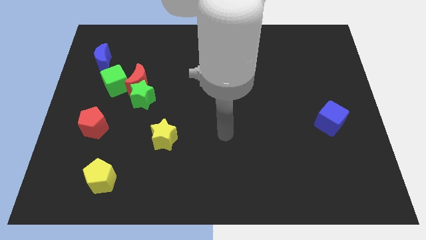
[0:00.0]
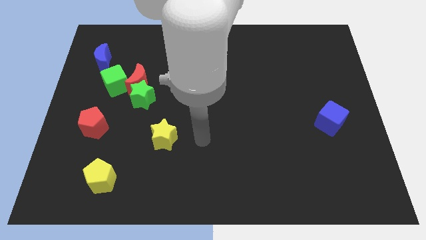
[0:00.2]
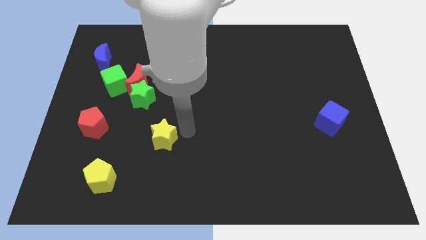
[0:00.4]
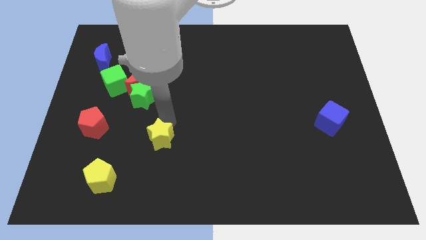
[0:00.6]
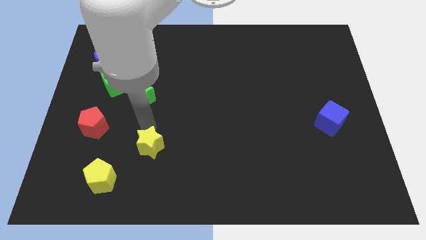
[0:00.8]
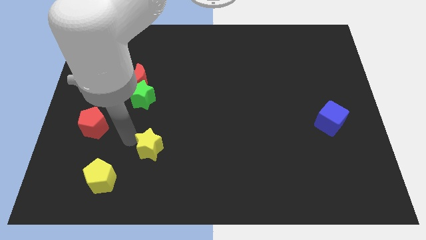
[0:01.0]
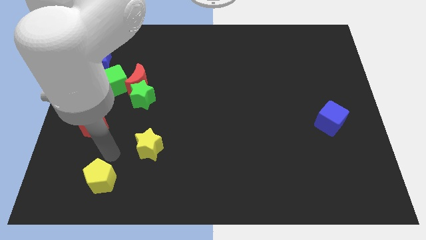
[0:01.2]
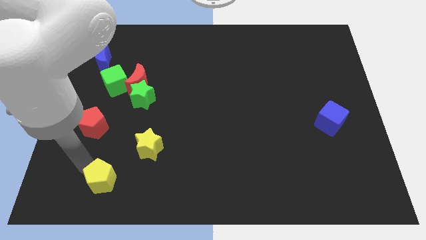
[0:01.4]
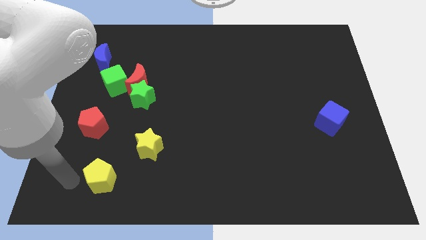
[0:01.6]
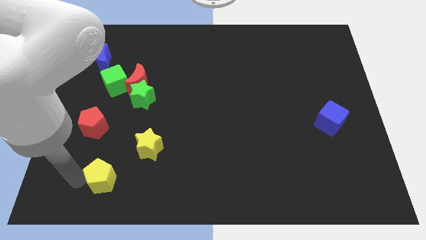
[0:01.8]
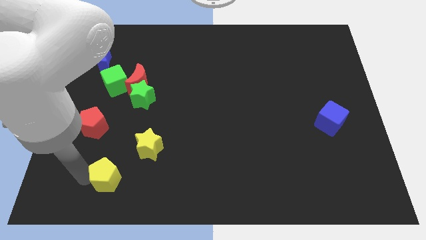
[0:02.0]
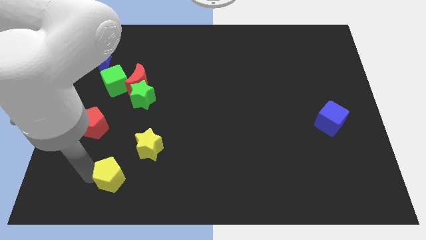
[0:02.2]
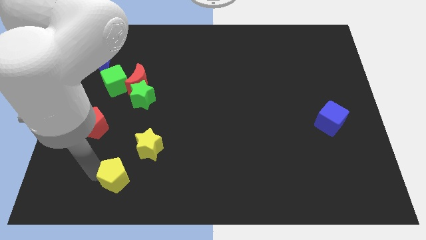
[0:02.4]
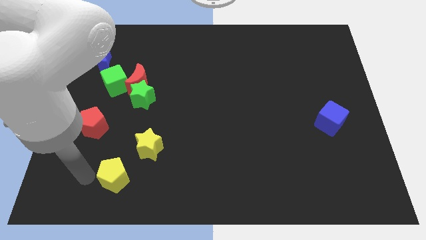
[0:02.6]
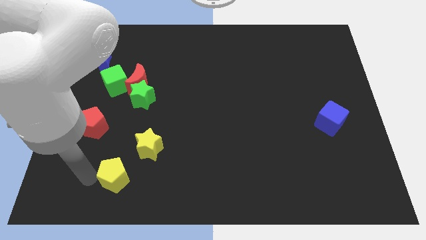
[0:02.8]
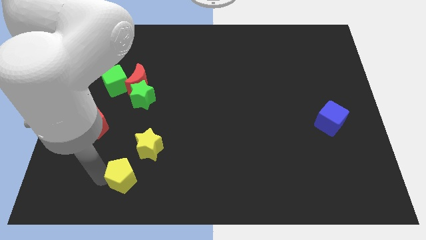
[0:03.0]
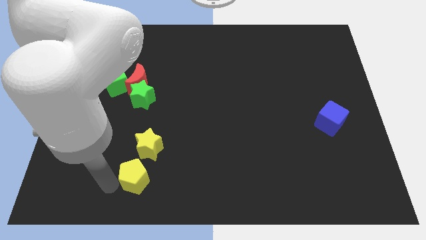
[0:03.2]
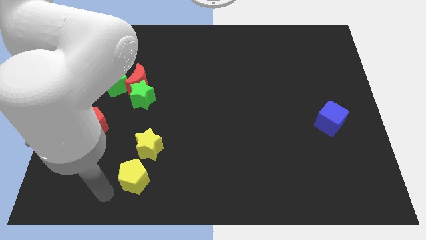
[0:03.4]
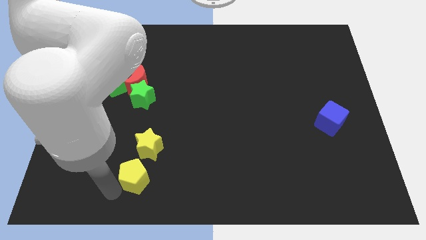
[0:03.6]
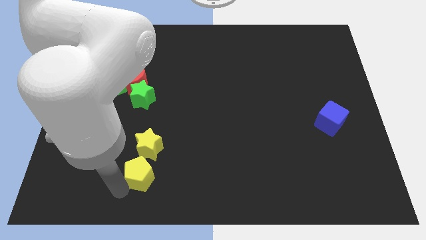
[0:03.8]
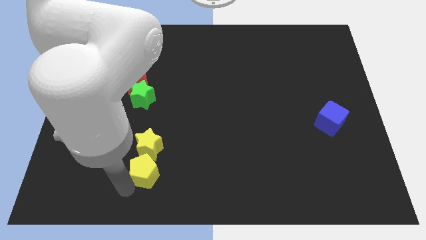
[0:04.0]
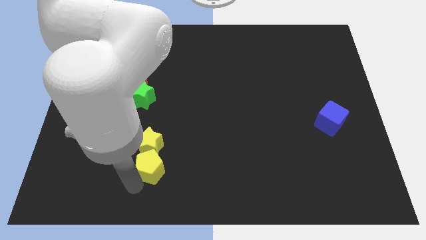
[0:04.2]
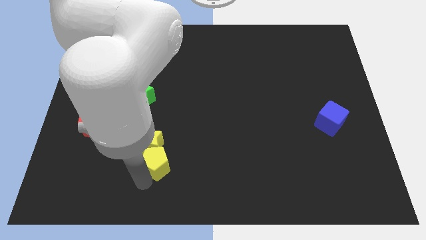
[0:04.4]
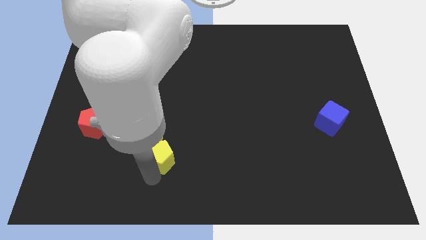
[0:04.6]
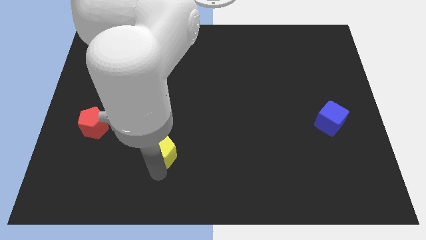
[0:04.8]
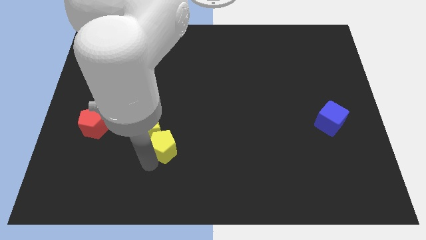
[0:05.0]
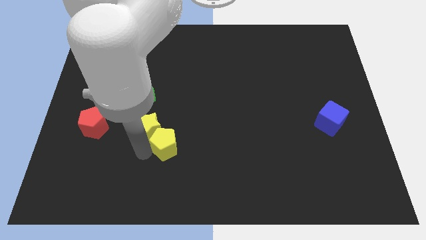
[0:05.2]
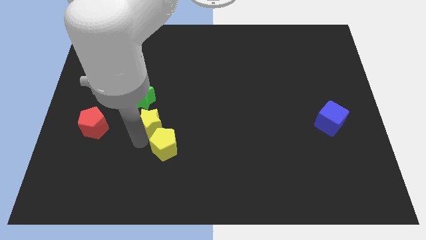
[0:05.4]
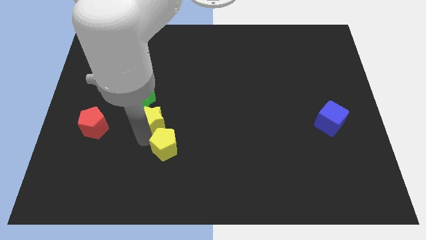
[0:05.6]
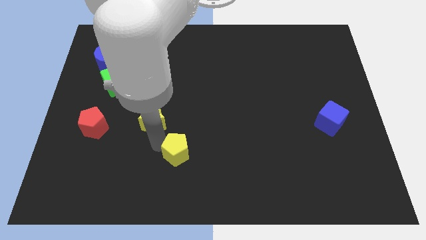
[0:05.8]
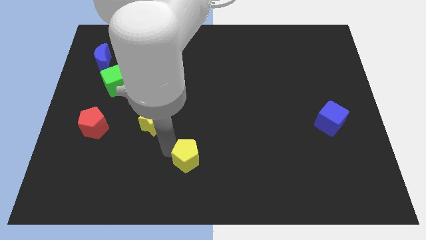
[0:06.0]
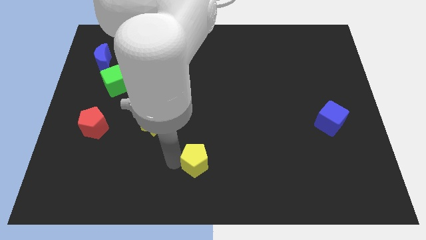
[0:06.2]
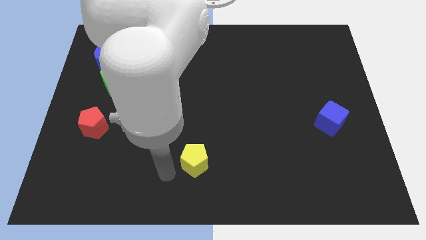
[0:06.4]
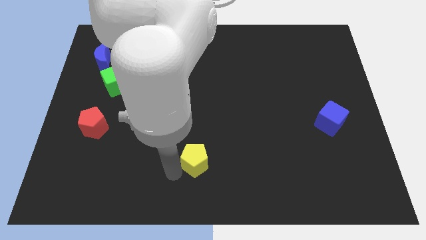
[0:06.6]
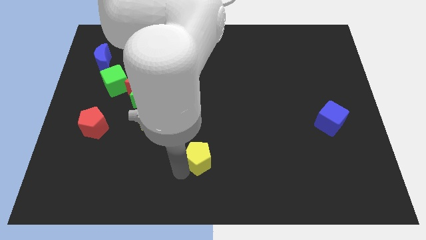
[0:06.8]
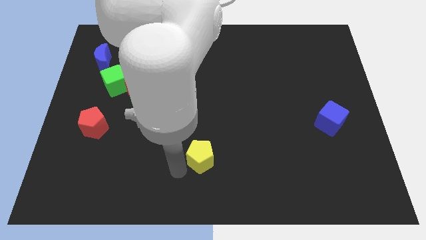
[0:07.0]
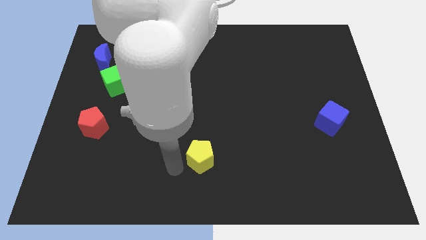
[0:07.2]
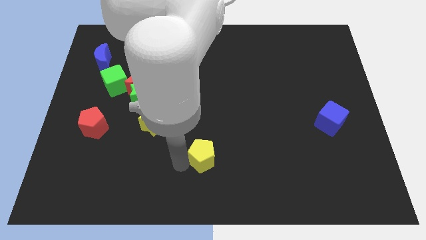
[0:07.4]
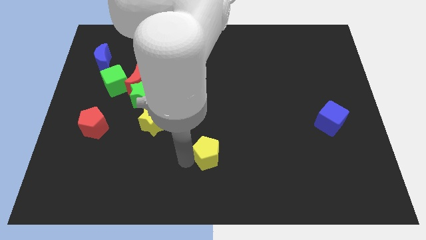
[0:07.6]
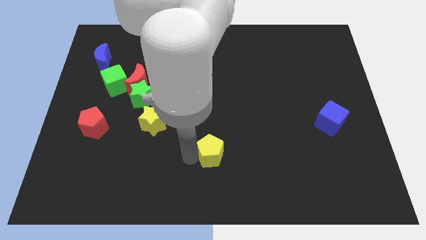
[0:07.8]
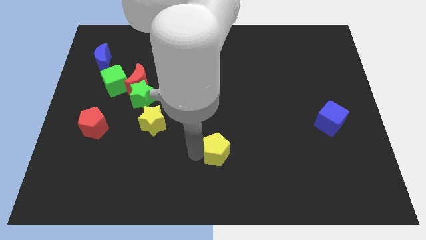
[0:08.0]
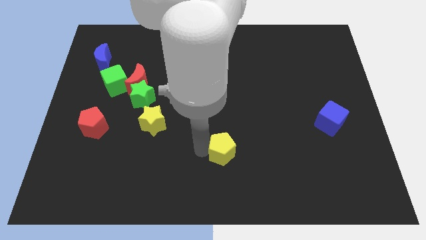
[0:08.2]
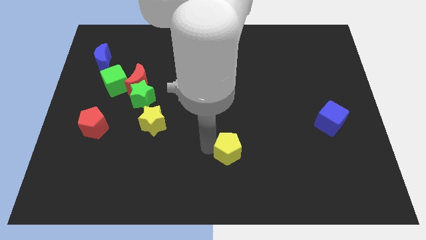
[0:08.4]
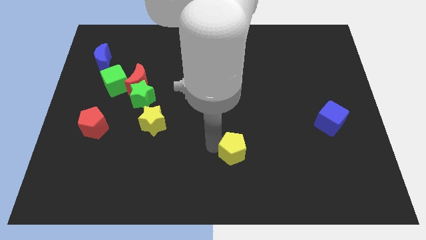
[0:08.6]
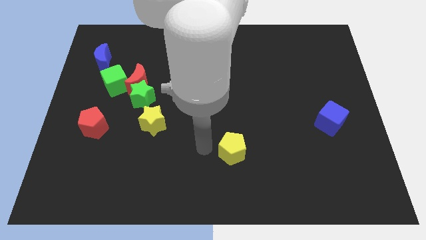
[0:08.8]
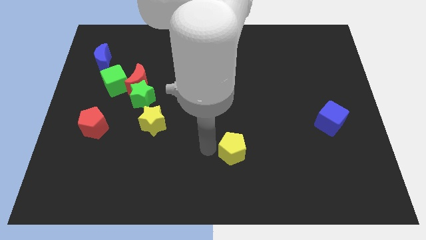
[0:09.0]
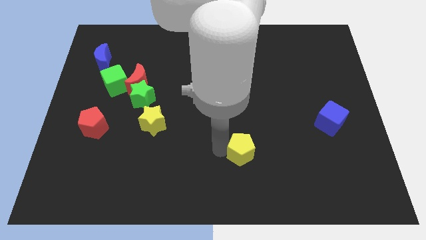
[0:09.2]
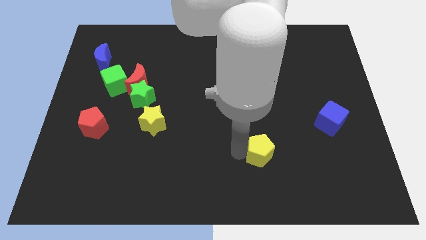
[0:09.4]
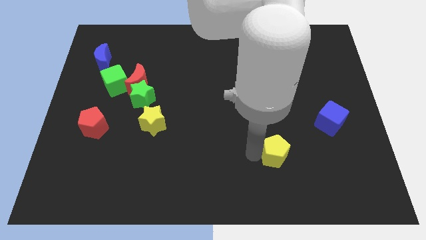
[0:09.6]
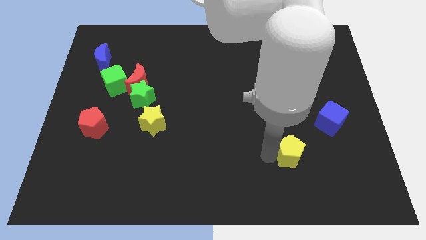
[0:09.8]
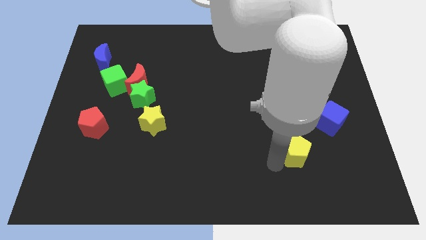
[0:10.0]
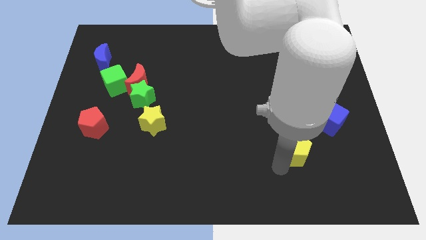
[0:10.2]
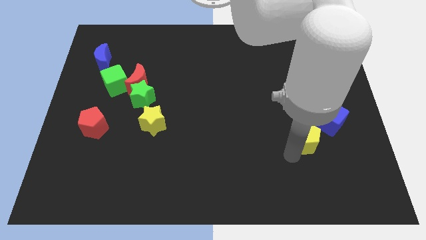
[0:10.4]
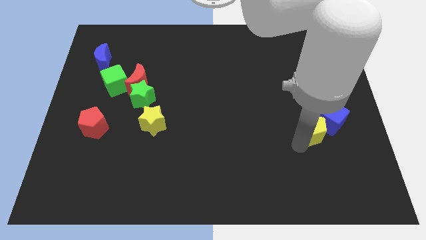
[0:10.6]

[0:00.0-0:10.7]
move the yellow pentagon next to the blue cube

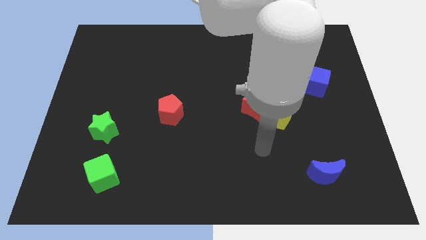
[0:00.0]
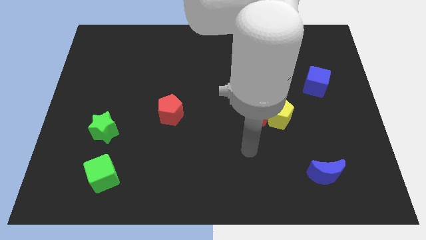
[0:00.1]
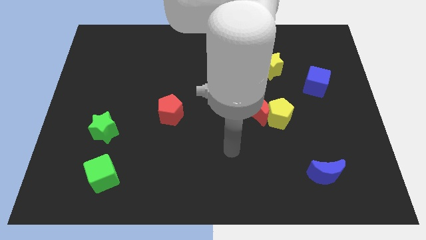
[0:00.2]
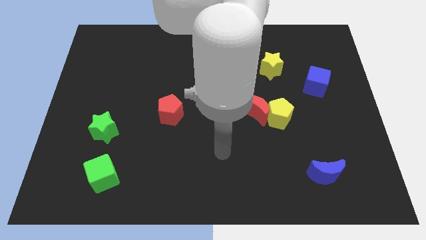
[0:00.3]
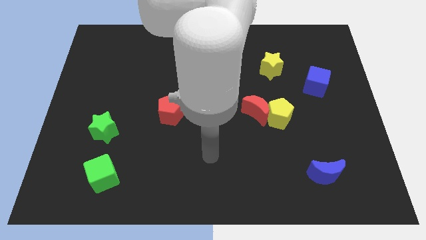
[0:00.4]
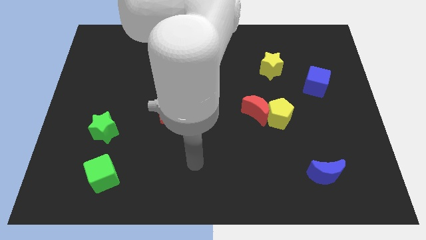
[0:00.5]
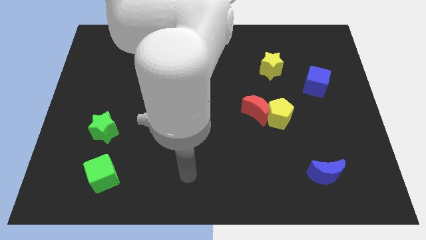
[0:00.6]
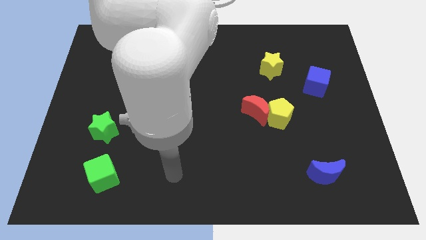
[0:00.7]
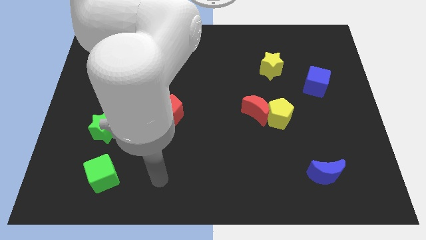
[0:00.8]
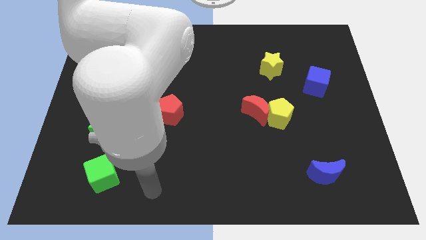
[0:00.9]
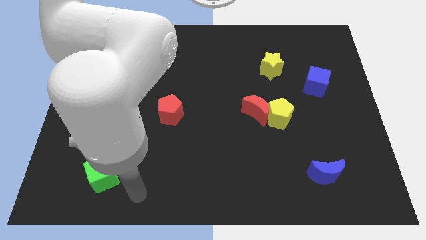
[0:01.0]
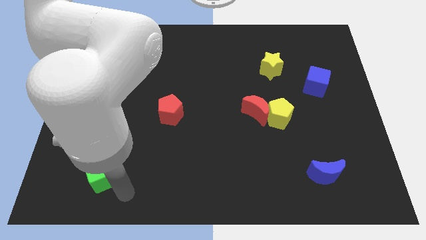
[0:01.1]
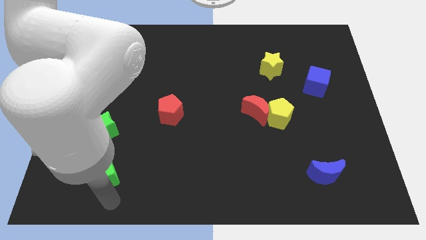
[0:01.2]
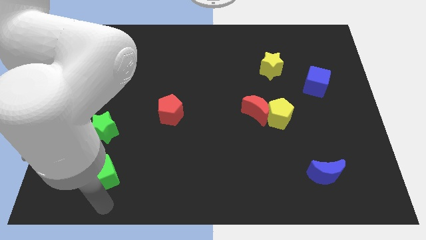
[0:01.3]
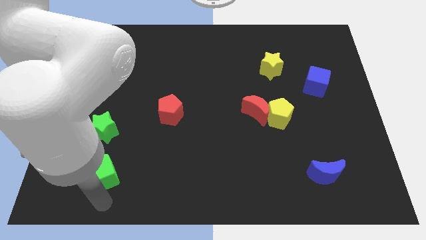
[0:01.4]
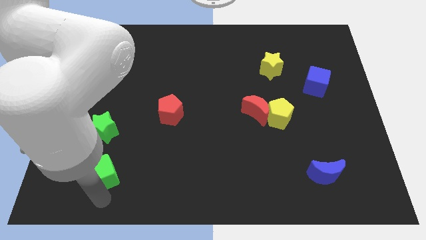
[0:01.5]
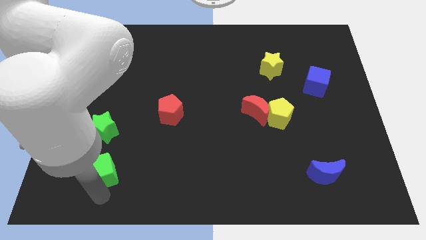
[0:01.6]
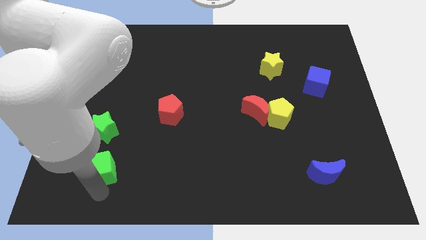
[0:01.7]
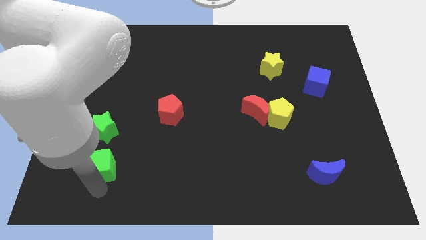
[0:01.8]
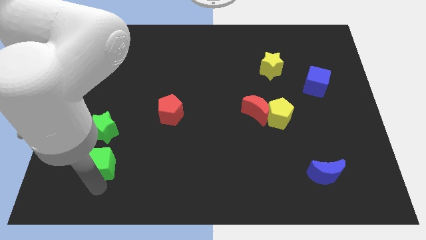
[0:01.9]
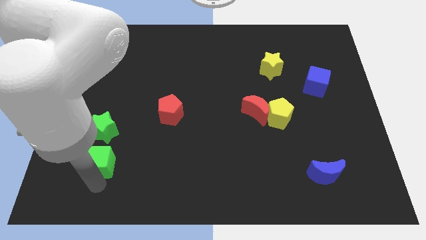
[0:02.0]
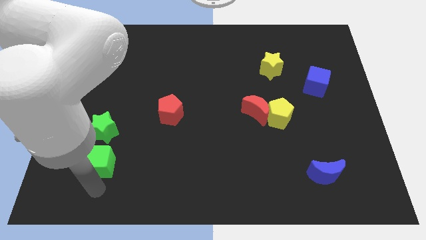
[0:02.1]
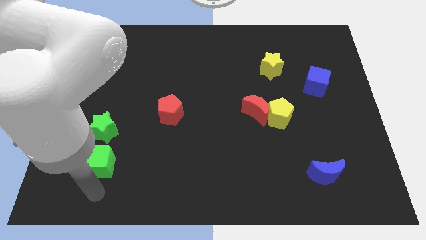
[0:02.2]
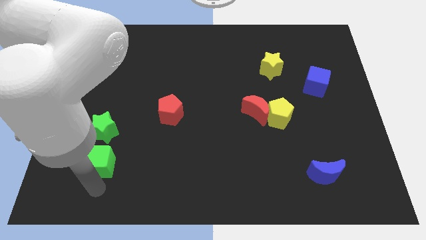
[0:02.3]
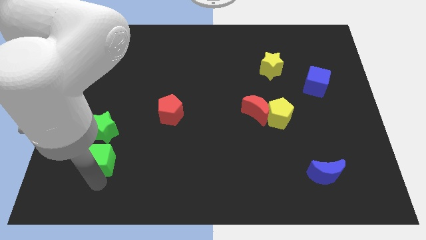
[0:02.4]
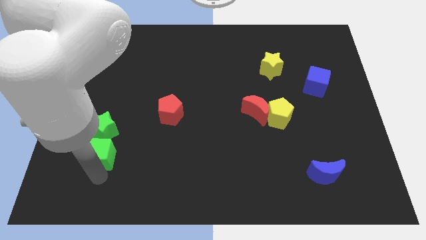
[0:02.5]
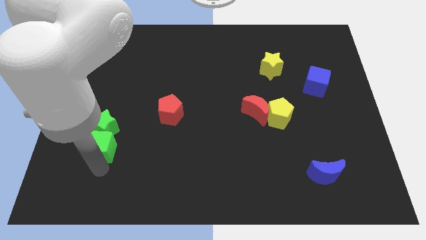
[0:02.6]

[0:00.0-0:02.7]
move the green cube to the green star

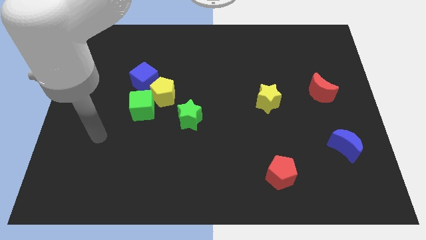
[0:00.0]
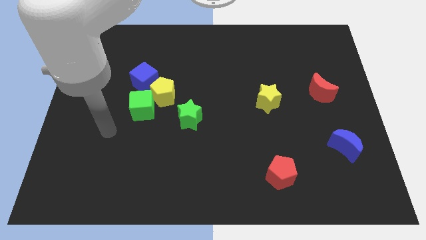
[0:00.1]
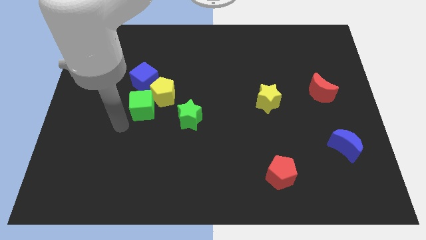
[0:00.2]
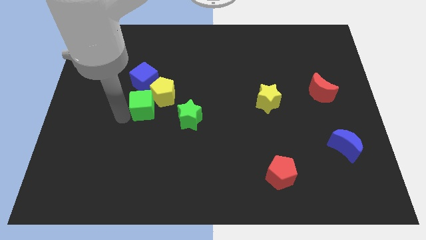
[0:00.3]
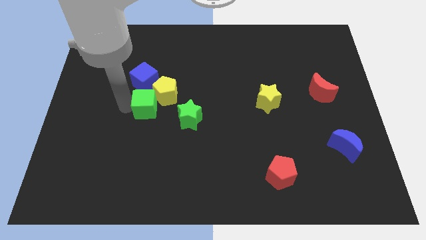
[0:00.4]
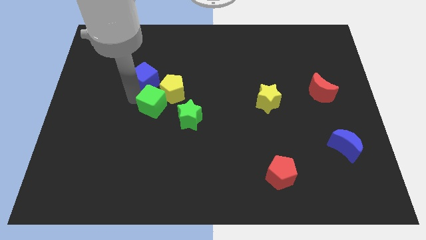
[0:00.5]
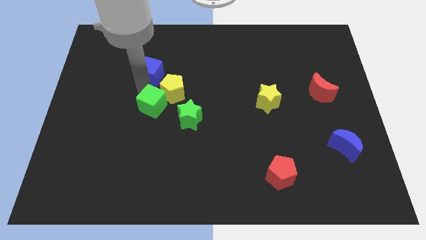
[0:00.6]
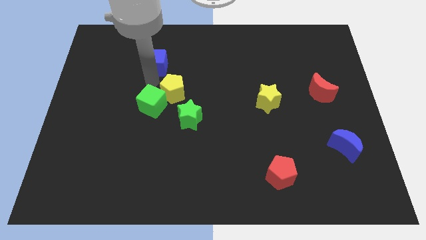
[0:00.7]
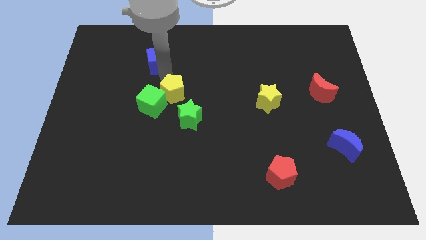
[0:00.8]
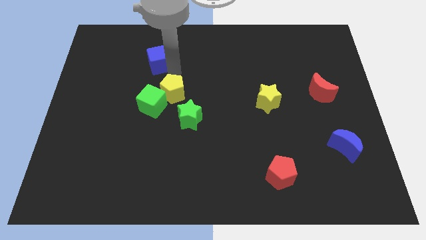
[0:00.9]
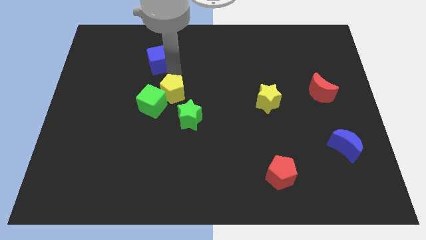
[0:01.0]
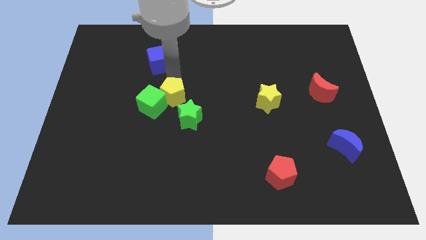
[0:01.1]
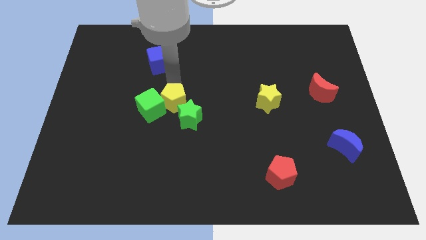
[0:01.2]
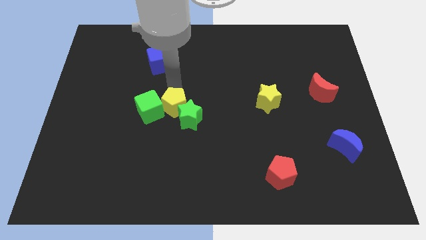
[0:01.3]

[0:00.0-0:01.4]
move the yellow pentagon to the green star
